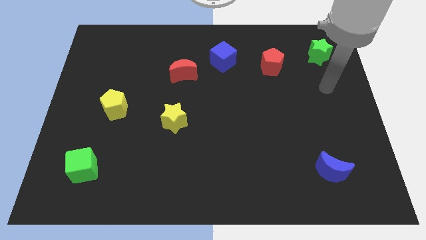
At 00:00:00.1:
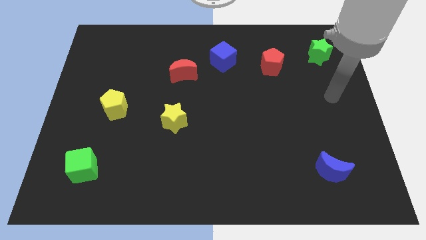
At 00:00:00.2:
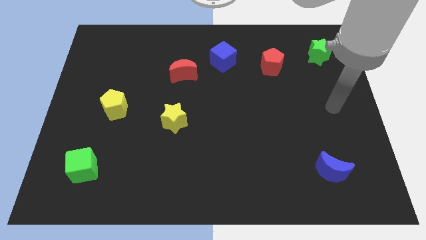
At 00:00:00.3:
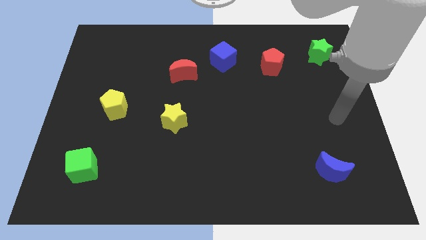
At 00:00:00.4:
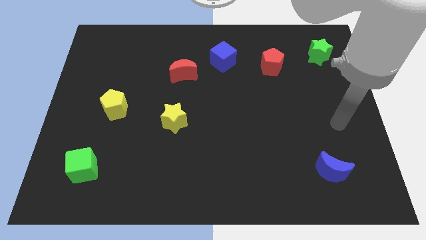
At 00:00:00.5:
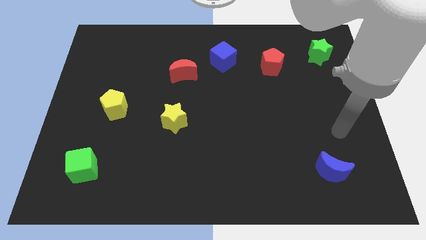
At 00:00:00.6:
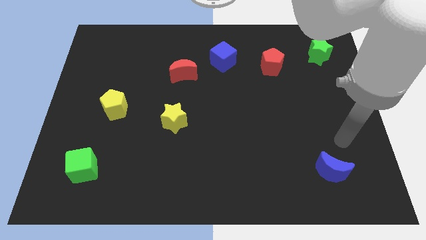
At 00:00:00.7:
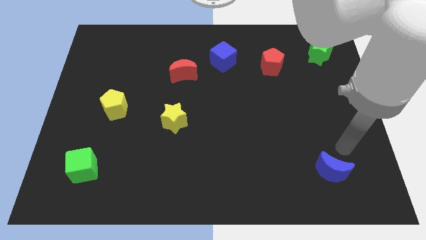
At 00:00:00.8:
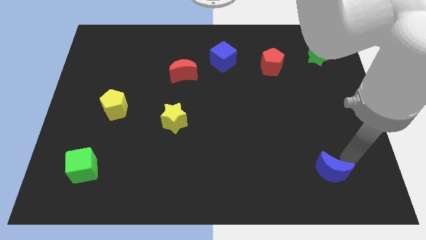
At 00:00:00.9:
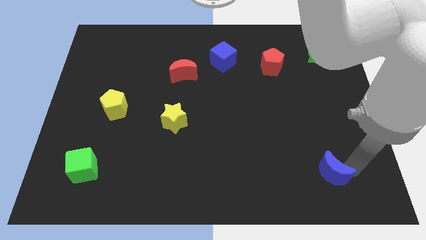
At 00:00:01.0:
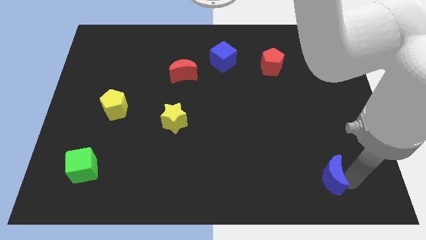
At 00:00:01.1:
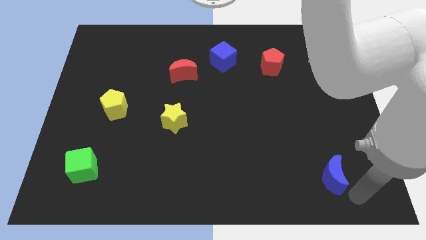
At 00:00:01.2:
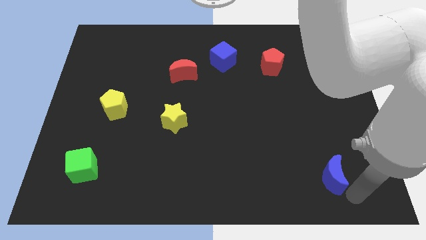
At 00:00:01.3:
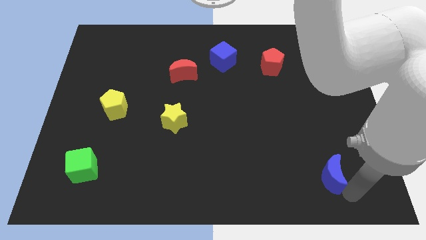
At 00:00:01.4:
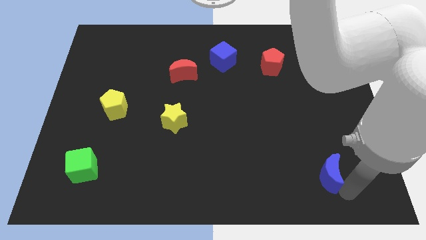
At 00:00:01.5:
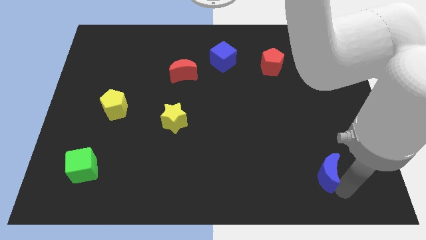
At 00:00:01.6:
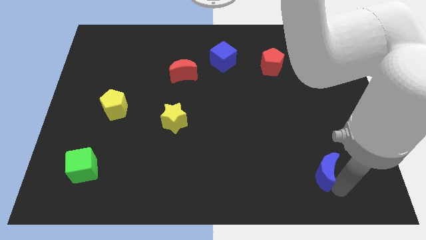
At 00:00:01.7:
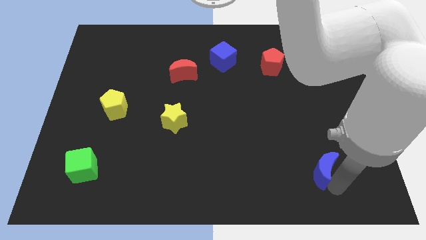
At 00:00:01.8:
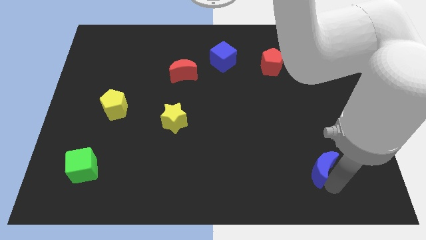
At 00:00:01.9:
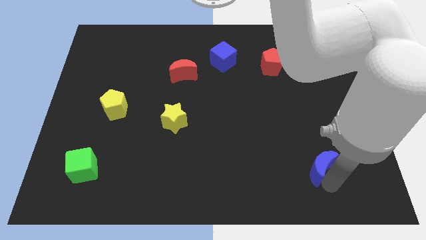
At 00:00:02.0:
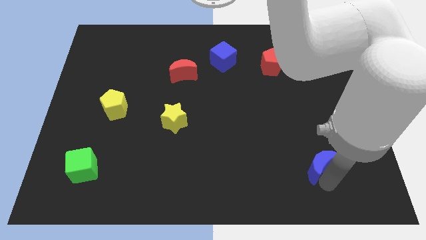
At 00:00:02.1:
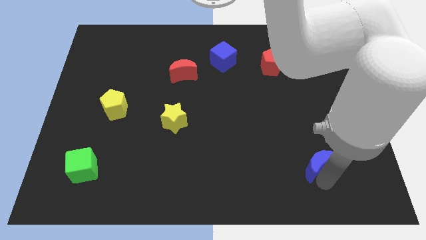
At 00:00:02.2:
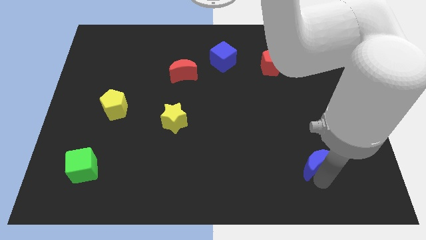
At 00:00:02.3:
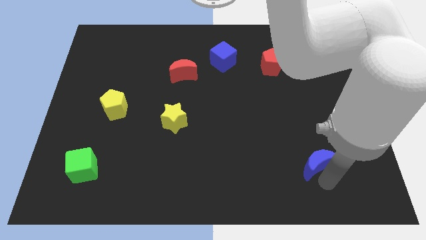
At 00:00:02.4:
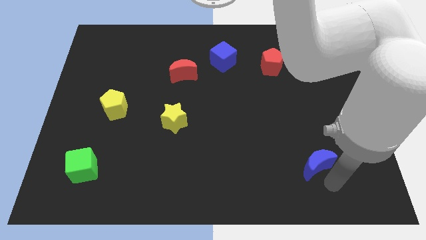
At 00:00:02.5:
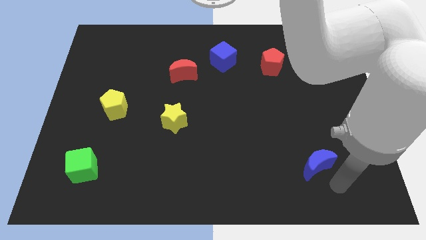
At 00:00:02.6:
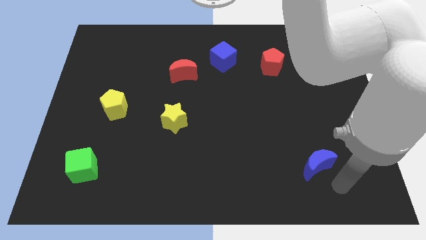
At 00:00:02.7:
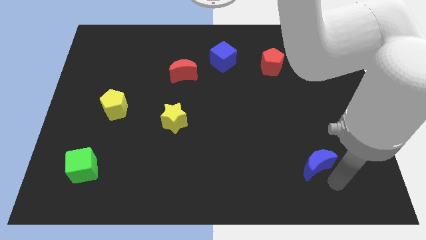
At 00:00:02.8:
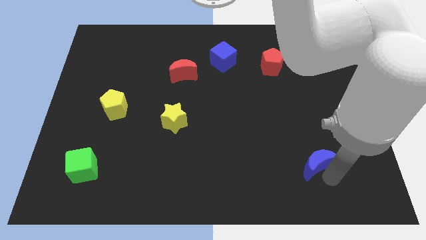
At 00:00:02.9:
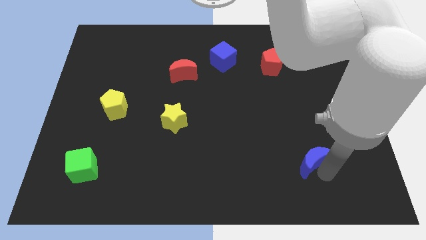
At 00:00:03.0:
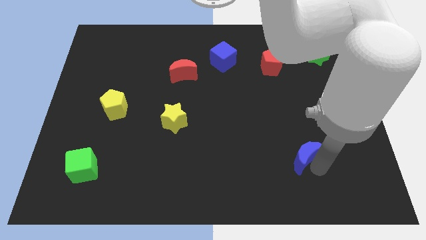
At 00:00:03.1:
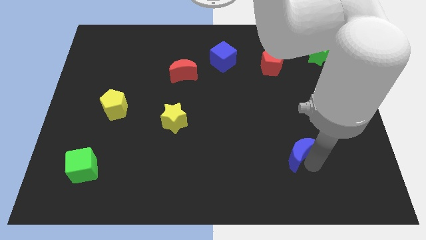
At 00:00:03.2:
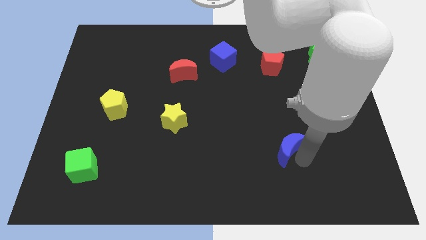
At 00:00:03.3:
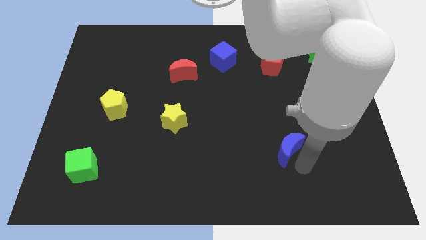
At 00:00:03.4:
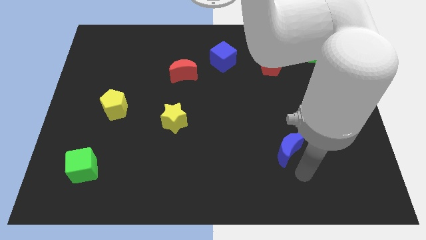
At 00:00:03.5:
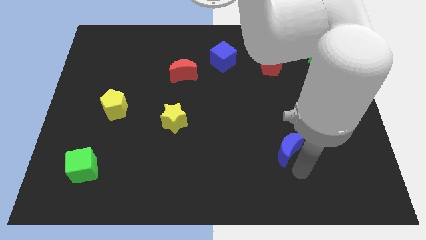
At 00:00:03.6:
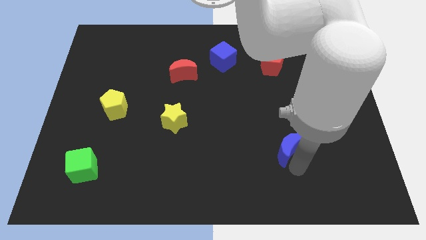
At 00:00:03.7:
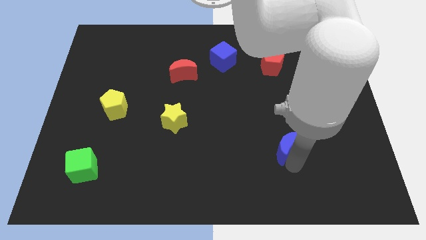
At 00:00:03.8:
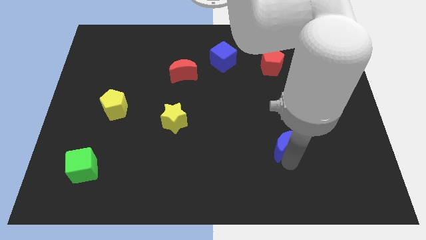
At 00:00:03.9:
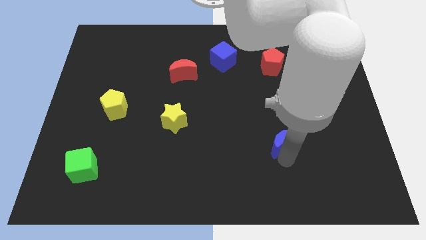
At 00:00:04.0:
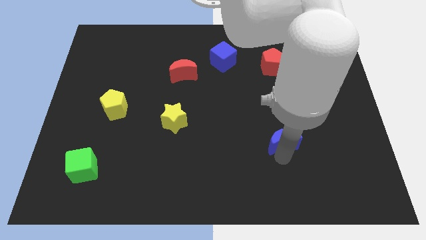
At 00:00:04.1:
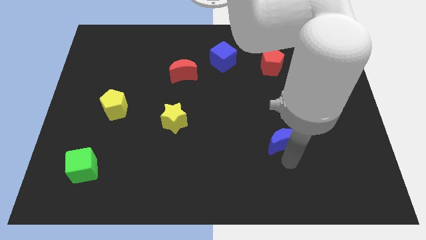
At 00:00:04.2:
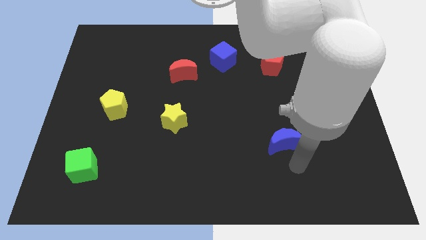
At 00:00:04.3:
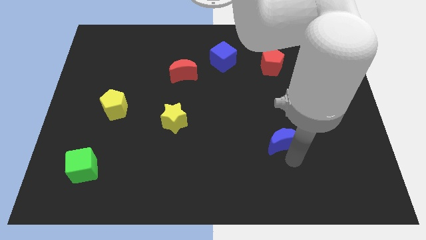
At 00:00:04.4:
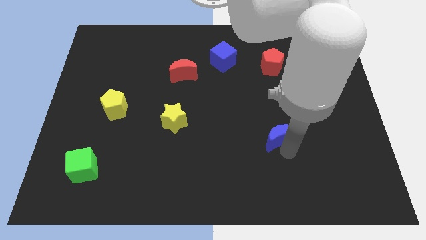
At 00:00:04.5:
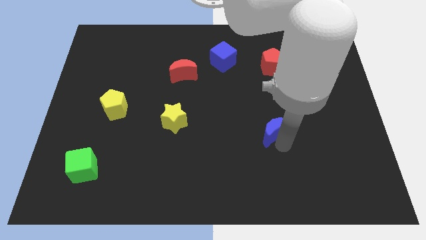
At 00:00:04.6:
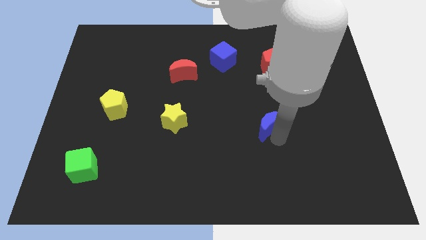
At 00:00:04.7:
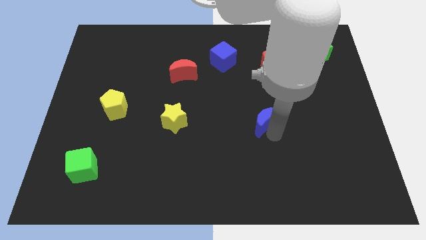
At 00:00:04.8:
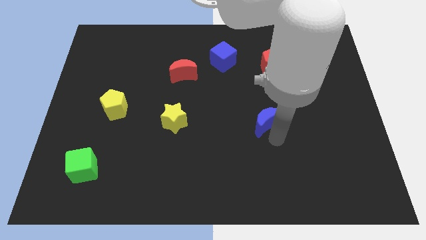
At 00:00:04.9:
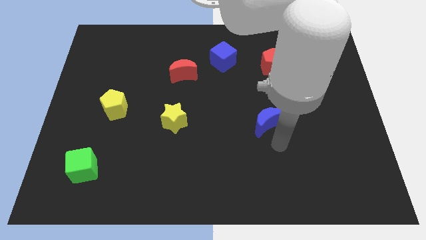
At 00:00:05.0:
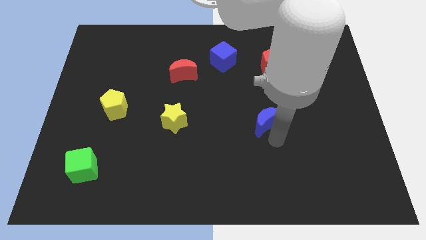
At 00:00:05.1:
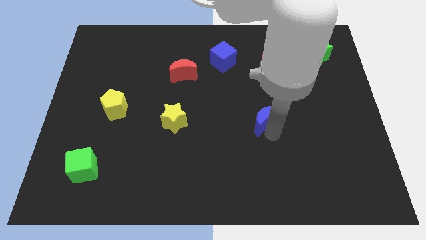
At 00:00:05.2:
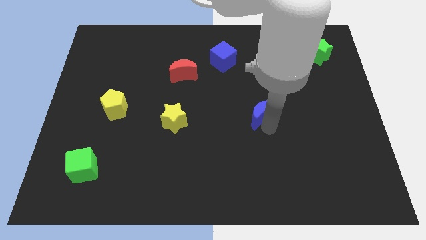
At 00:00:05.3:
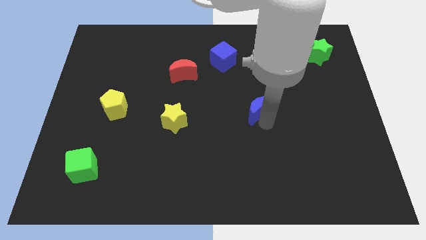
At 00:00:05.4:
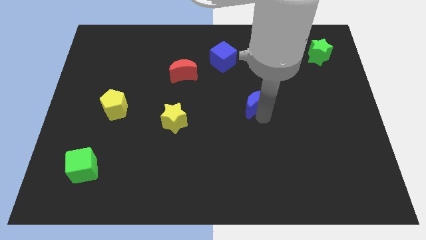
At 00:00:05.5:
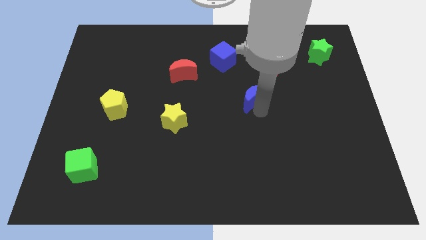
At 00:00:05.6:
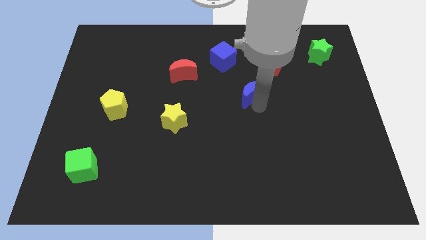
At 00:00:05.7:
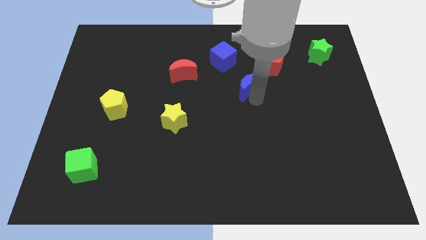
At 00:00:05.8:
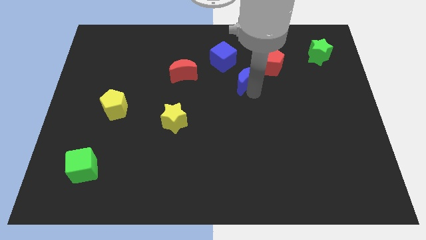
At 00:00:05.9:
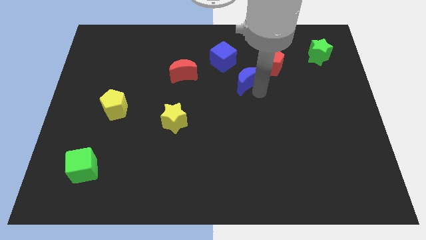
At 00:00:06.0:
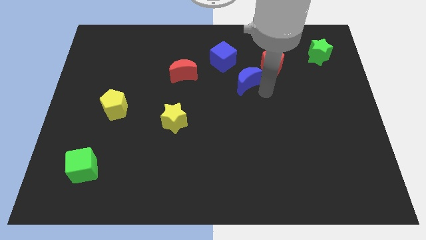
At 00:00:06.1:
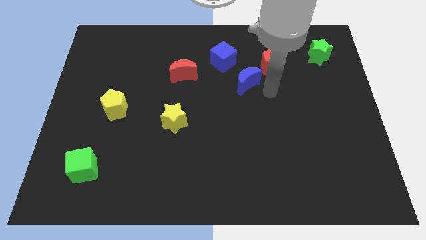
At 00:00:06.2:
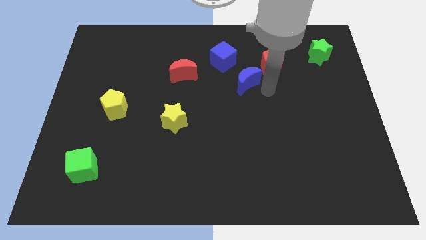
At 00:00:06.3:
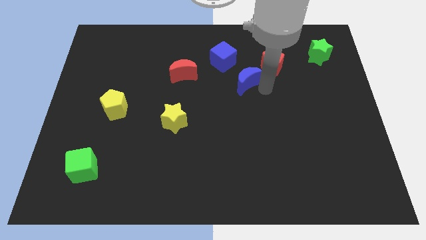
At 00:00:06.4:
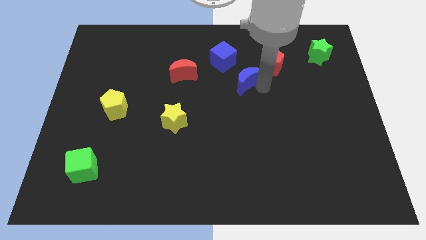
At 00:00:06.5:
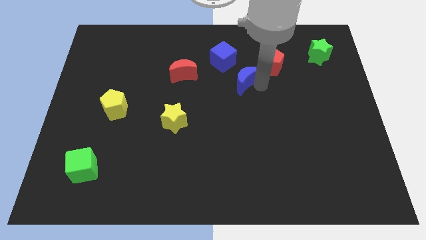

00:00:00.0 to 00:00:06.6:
push the blue moon to the right of the red moon
